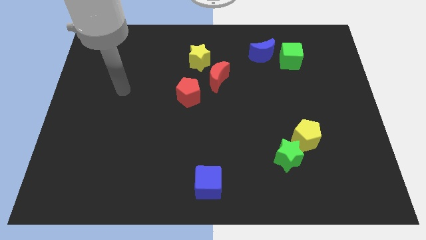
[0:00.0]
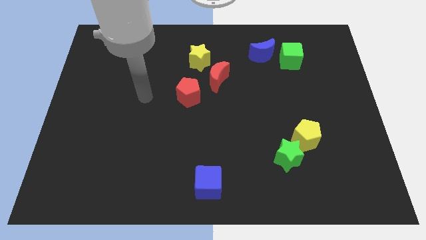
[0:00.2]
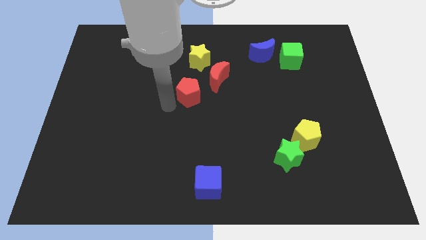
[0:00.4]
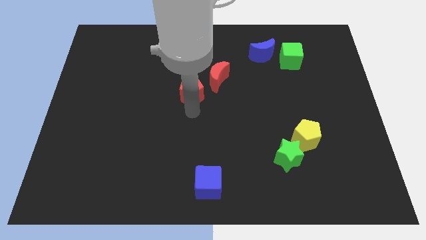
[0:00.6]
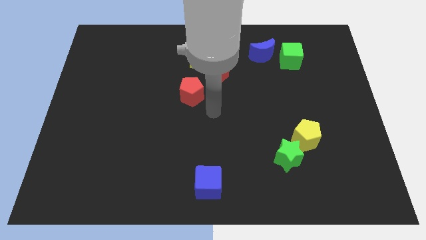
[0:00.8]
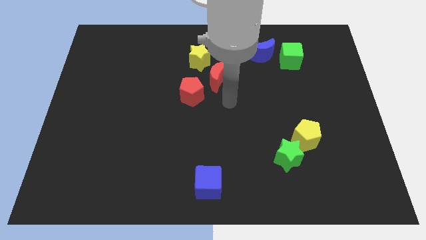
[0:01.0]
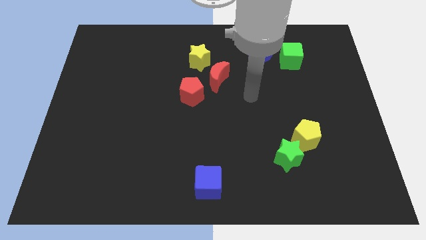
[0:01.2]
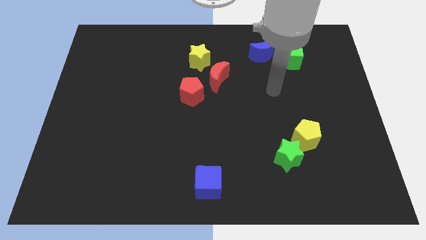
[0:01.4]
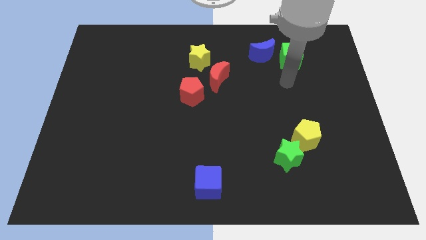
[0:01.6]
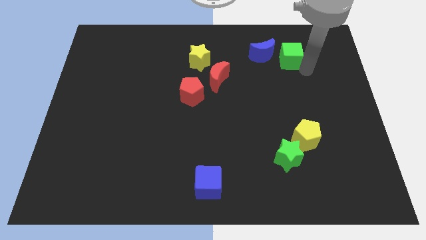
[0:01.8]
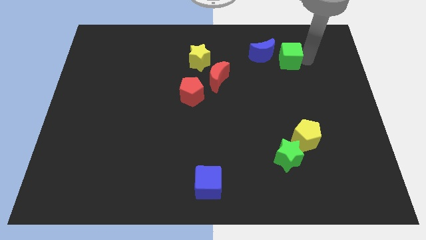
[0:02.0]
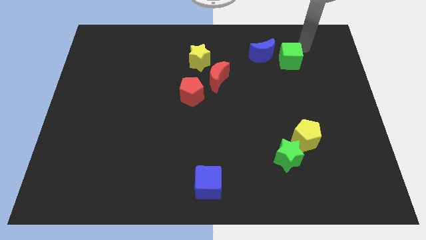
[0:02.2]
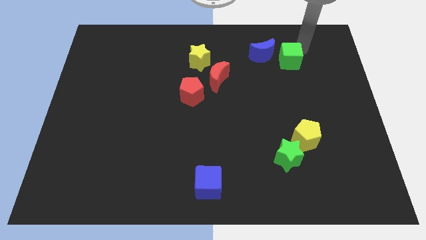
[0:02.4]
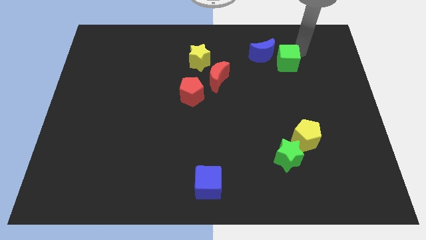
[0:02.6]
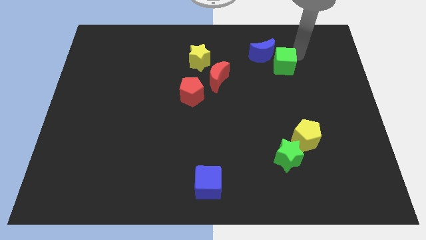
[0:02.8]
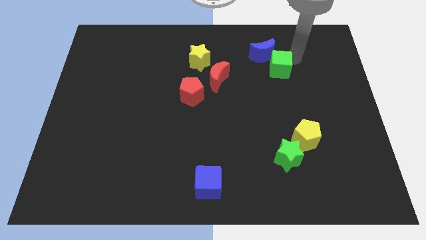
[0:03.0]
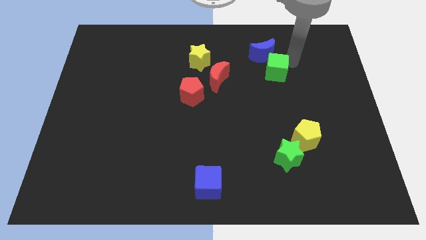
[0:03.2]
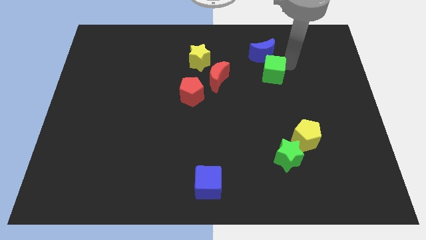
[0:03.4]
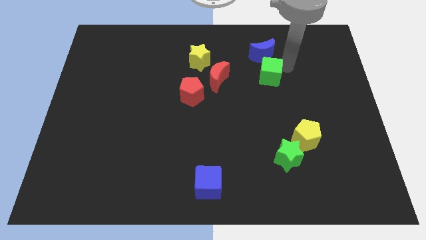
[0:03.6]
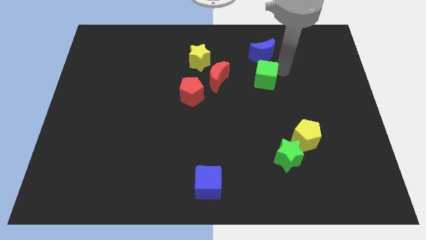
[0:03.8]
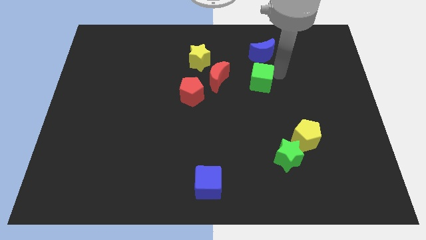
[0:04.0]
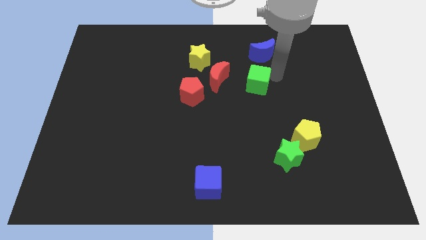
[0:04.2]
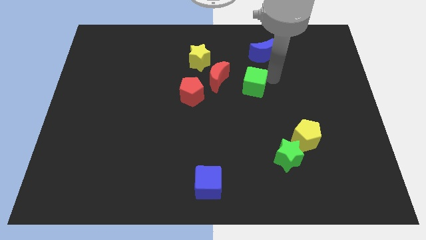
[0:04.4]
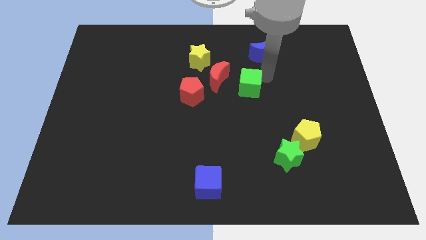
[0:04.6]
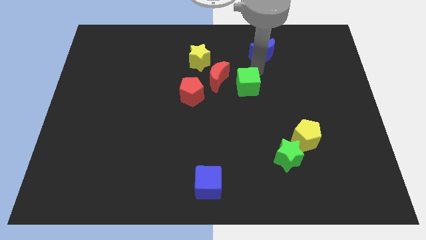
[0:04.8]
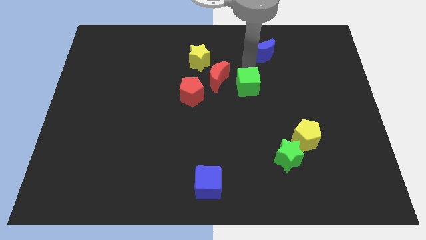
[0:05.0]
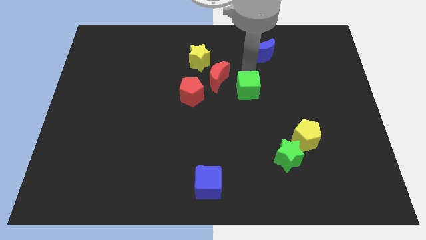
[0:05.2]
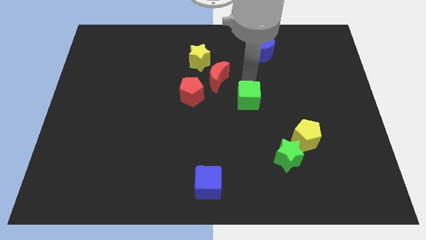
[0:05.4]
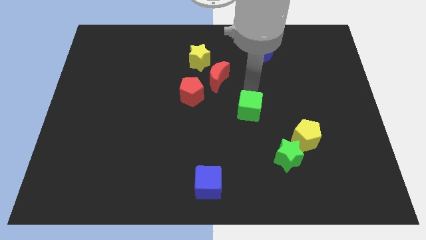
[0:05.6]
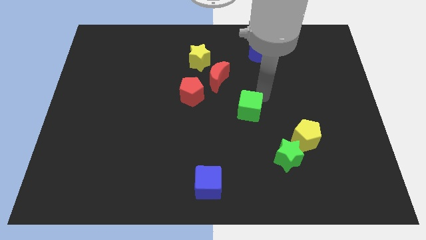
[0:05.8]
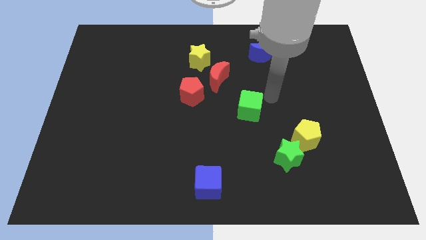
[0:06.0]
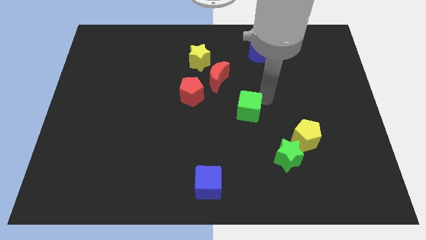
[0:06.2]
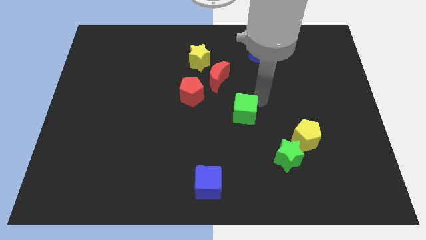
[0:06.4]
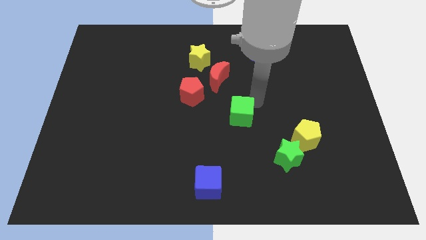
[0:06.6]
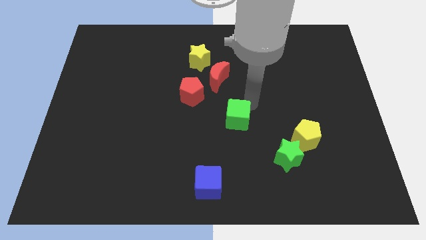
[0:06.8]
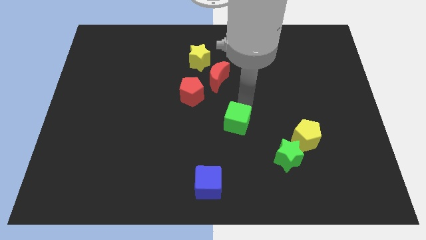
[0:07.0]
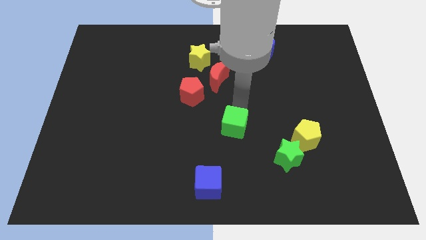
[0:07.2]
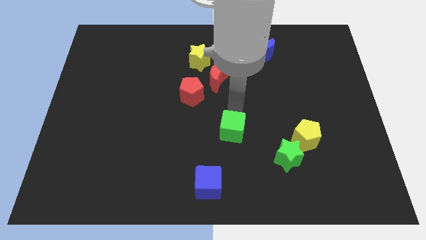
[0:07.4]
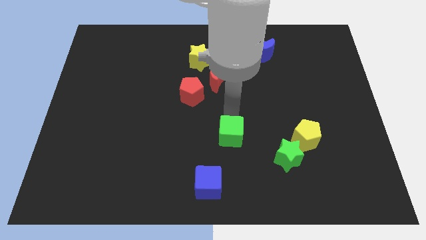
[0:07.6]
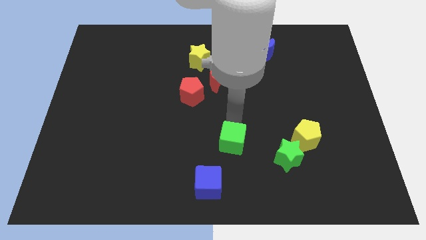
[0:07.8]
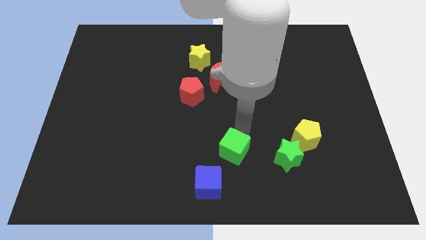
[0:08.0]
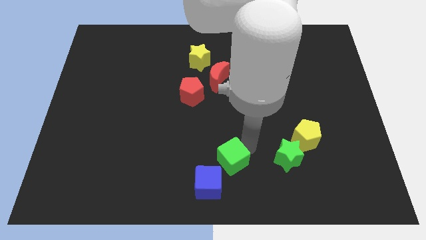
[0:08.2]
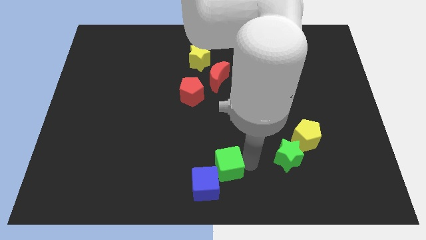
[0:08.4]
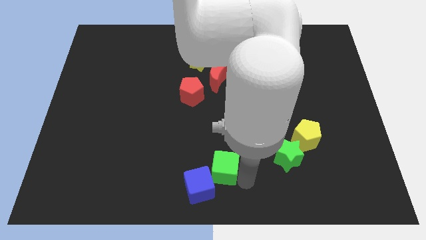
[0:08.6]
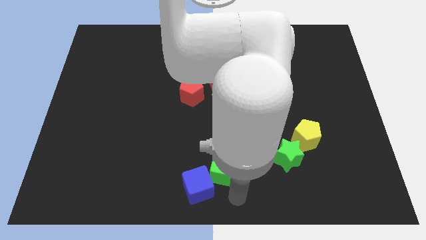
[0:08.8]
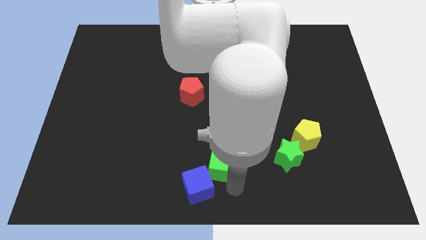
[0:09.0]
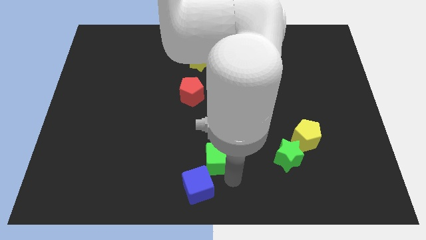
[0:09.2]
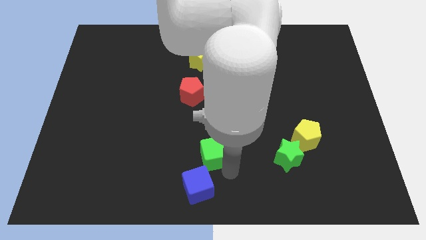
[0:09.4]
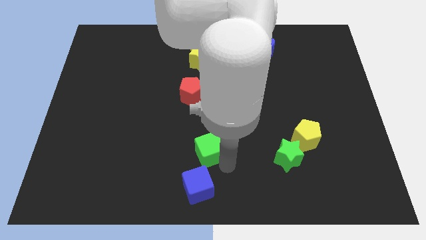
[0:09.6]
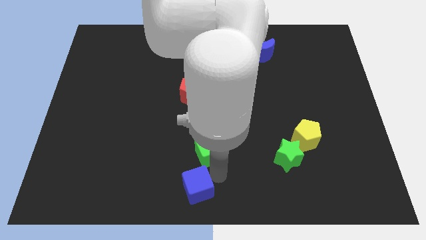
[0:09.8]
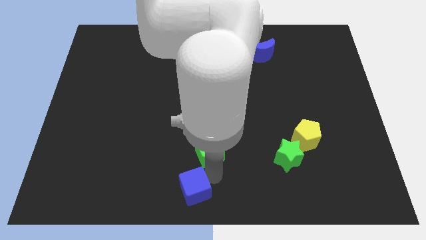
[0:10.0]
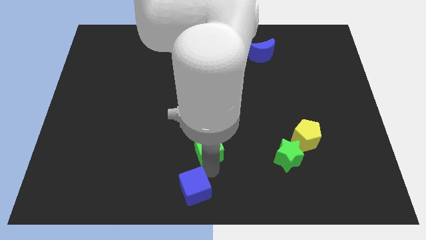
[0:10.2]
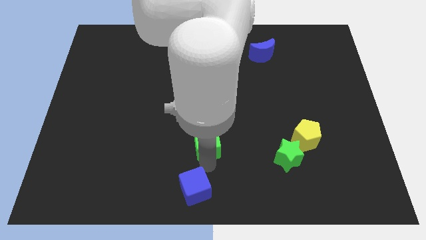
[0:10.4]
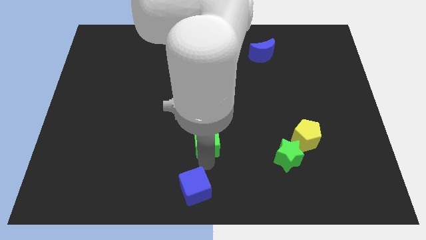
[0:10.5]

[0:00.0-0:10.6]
slide the green cube to the bottom of the red pentagon
